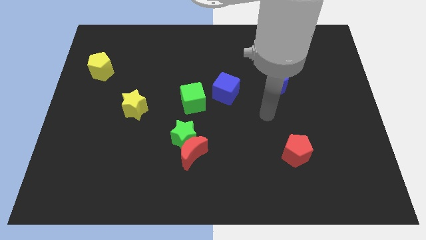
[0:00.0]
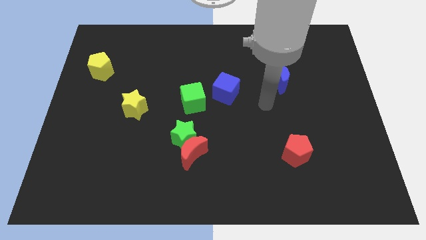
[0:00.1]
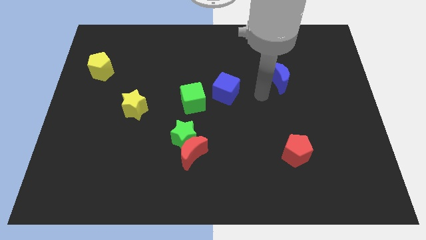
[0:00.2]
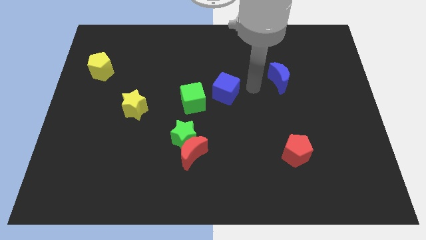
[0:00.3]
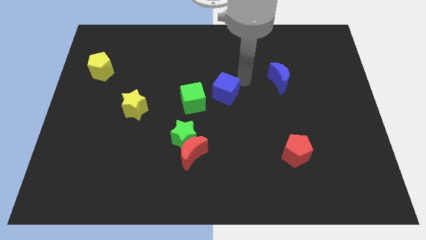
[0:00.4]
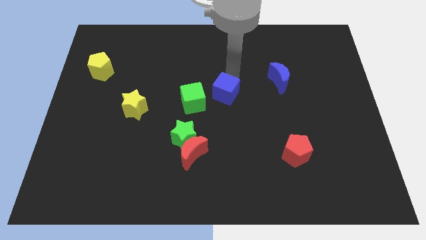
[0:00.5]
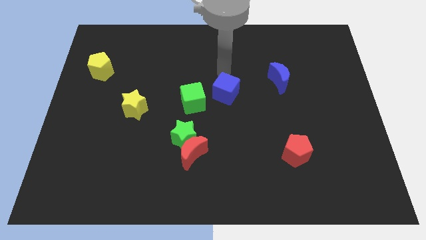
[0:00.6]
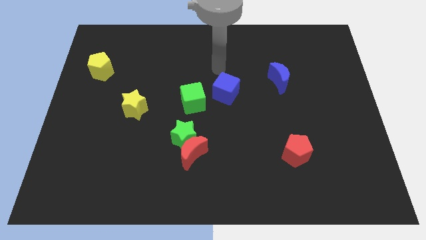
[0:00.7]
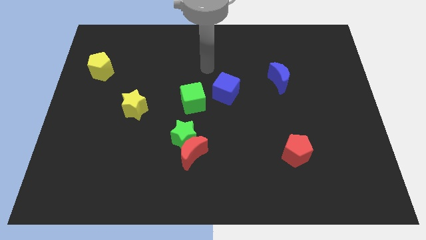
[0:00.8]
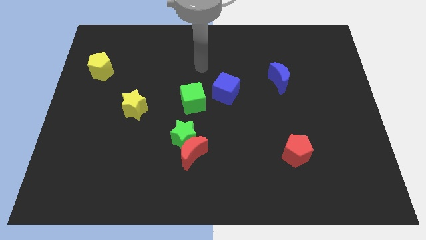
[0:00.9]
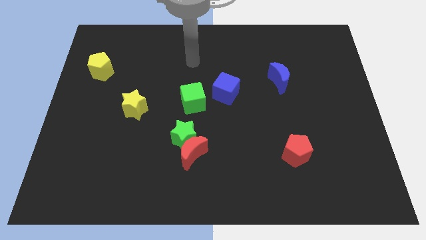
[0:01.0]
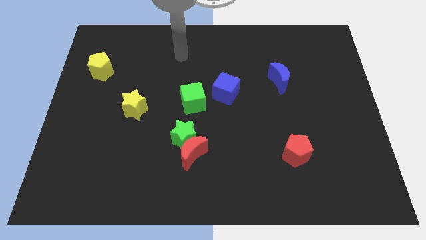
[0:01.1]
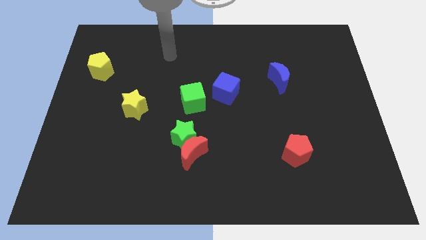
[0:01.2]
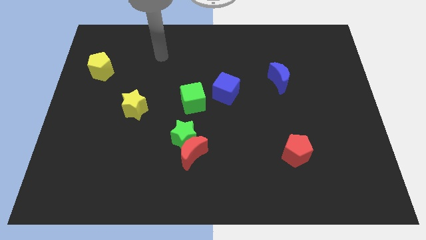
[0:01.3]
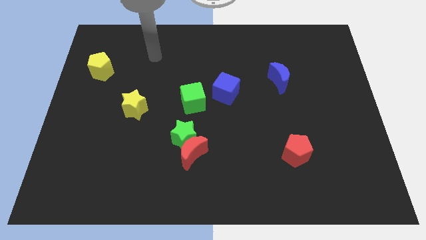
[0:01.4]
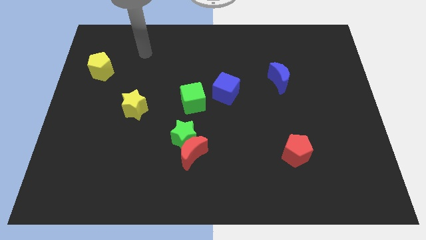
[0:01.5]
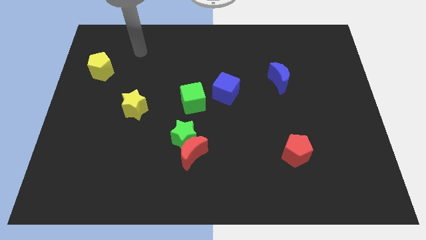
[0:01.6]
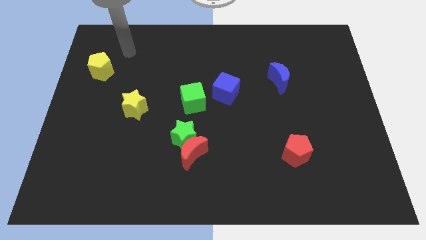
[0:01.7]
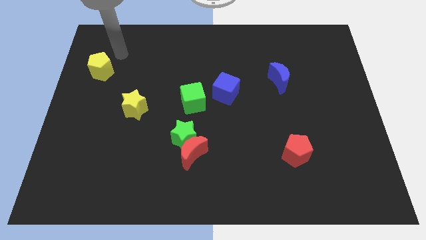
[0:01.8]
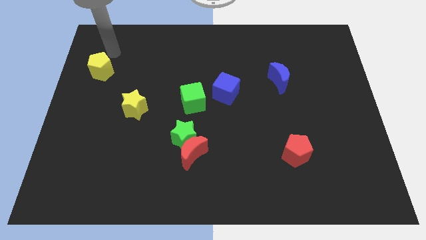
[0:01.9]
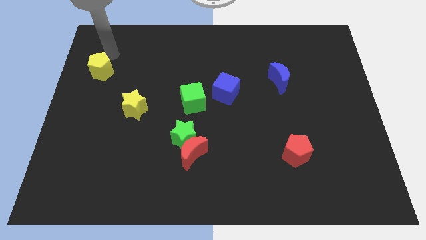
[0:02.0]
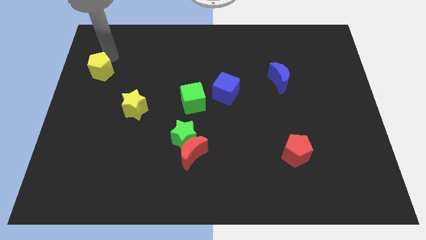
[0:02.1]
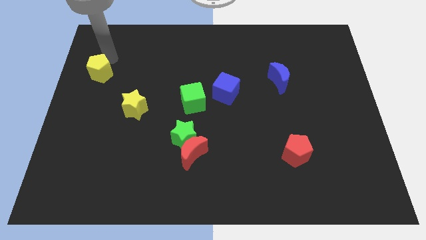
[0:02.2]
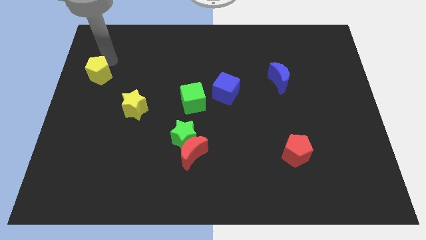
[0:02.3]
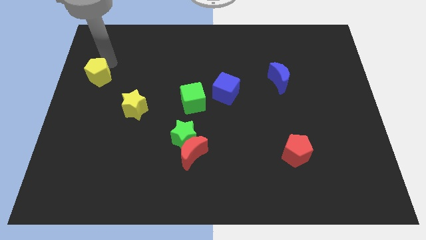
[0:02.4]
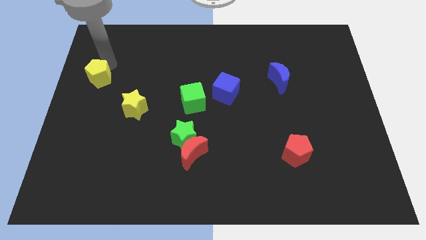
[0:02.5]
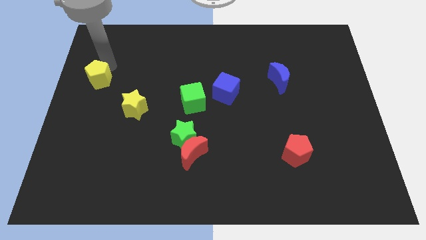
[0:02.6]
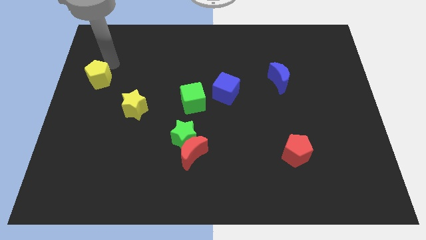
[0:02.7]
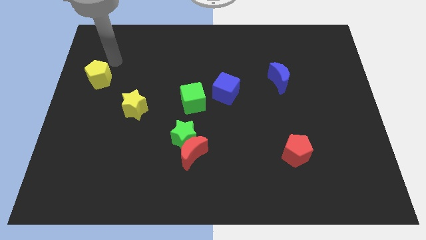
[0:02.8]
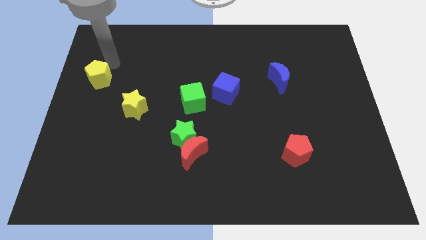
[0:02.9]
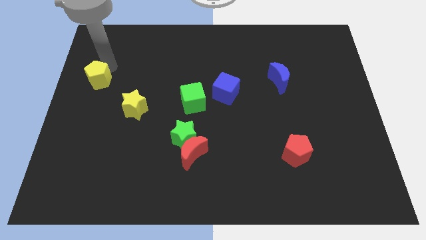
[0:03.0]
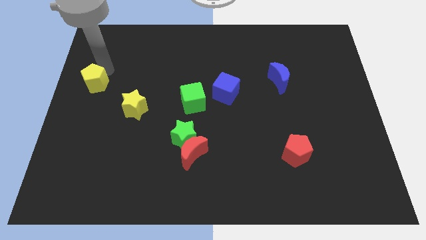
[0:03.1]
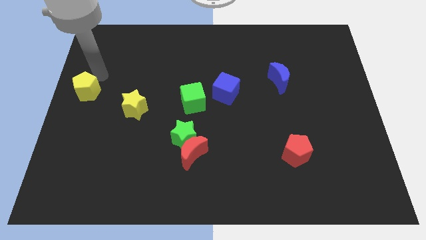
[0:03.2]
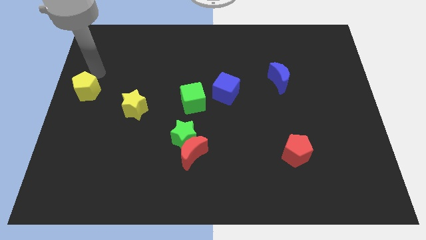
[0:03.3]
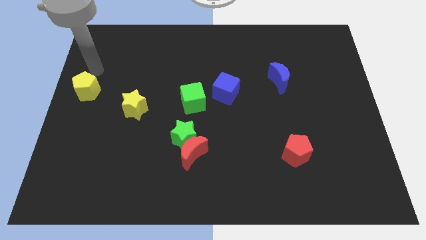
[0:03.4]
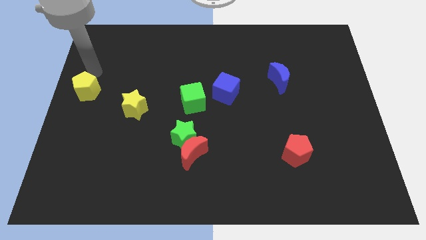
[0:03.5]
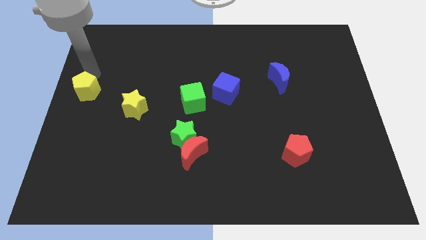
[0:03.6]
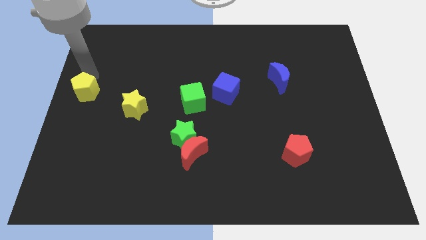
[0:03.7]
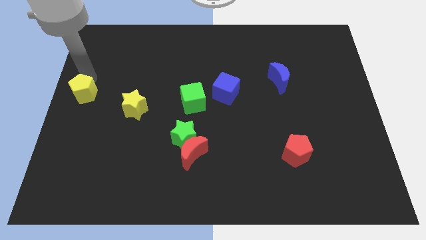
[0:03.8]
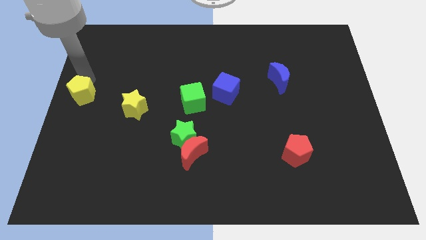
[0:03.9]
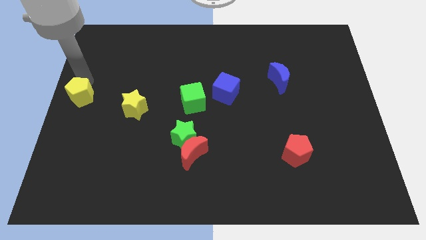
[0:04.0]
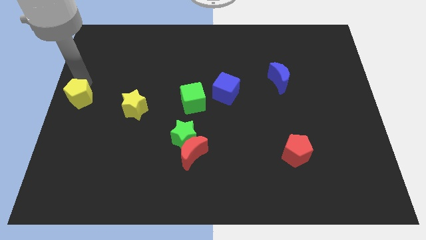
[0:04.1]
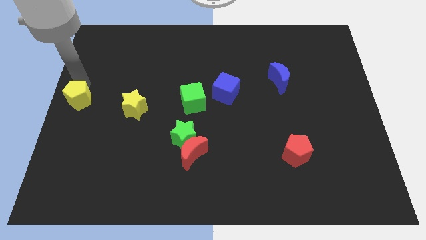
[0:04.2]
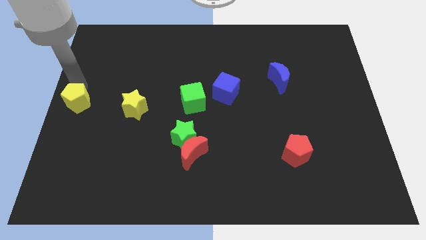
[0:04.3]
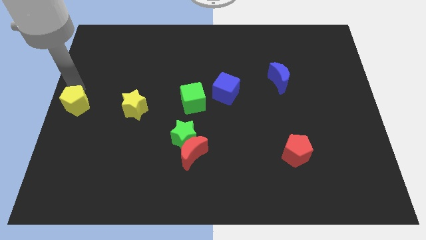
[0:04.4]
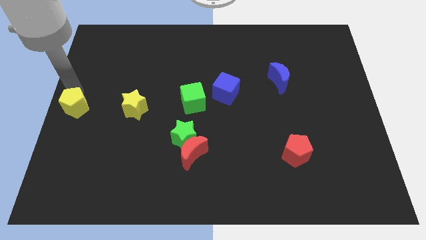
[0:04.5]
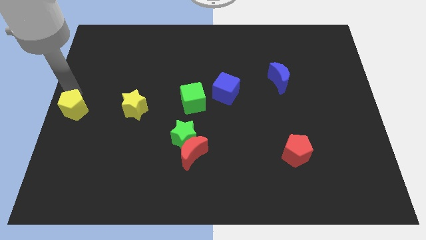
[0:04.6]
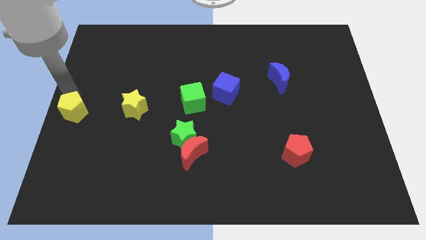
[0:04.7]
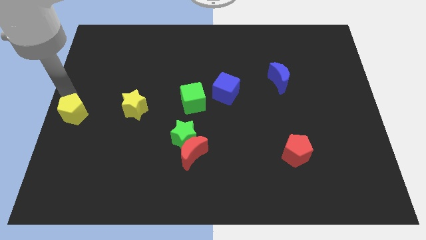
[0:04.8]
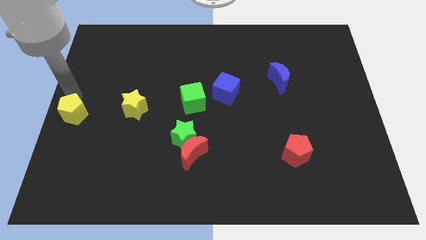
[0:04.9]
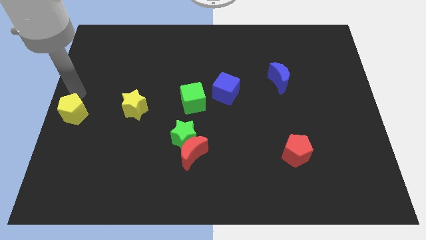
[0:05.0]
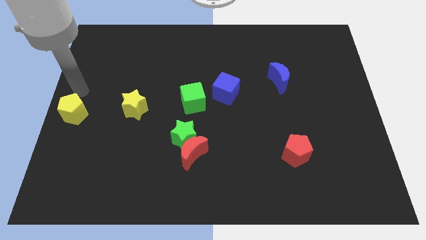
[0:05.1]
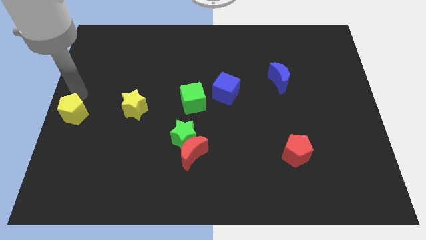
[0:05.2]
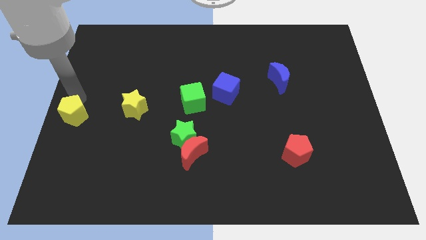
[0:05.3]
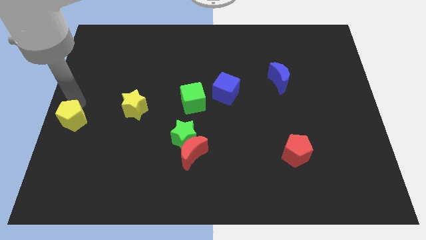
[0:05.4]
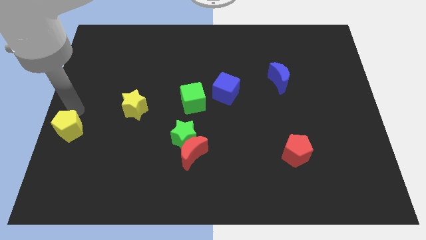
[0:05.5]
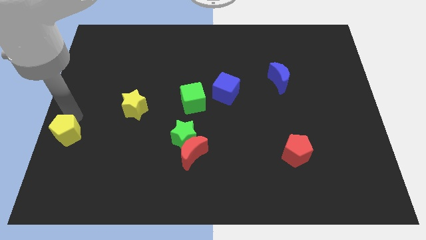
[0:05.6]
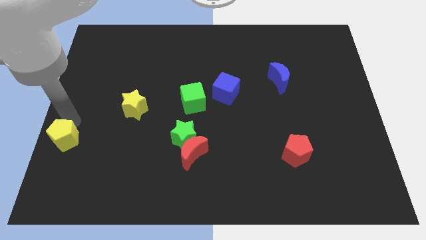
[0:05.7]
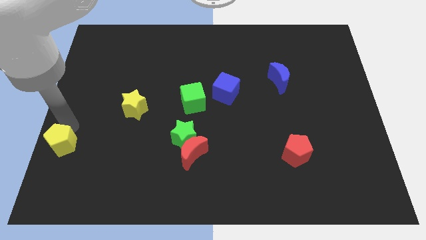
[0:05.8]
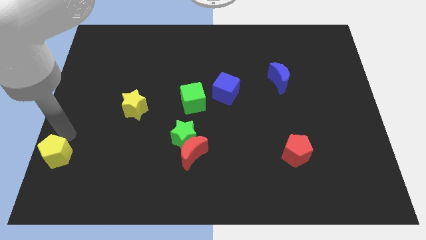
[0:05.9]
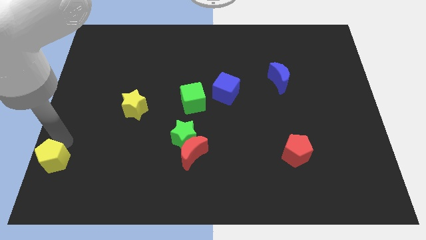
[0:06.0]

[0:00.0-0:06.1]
move the yellow pentagon to the bottom left of the board
